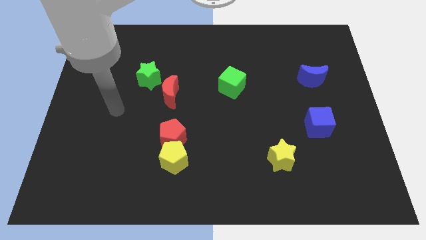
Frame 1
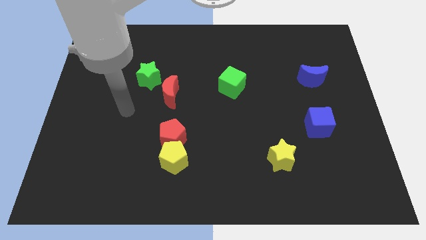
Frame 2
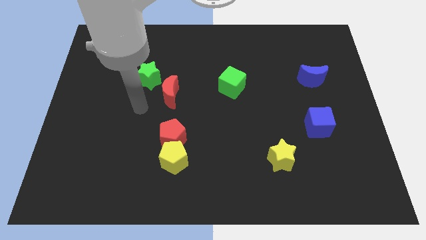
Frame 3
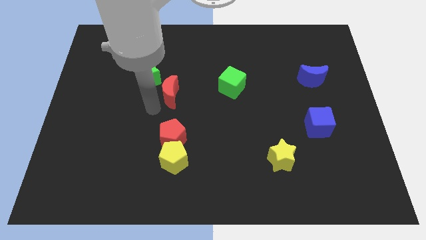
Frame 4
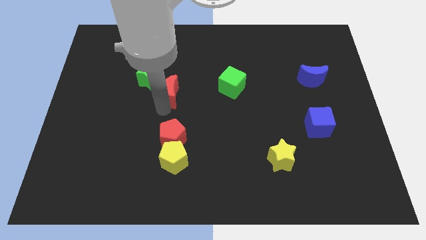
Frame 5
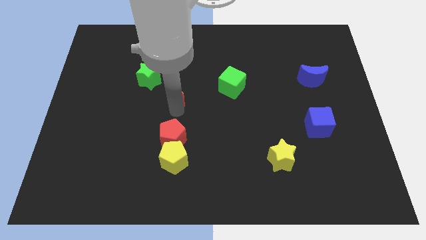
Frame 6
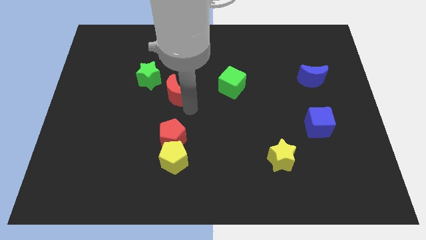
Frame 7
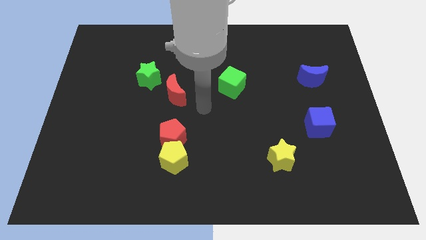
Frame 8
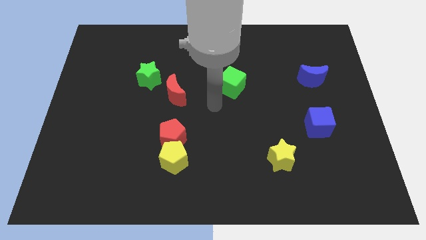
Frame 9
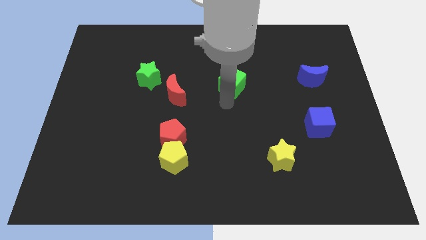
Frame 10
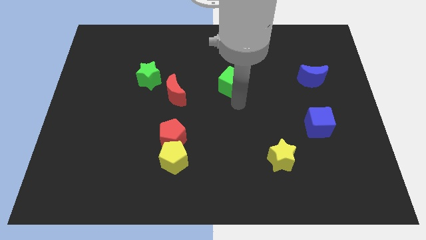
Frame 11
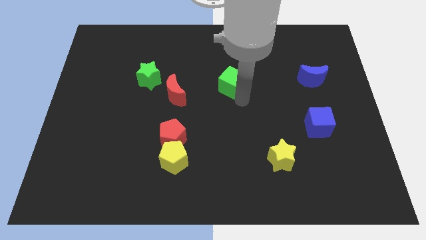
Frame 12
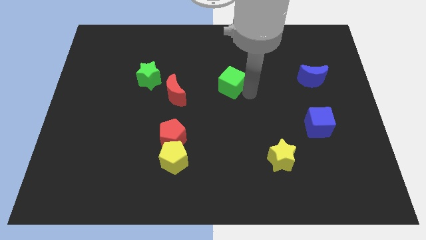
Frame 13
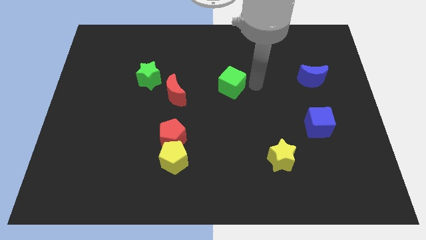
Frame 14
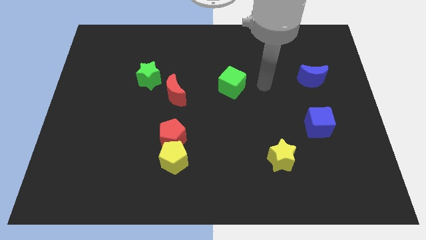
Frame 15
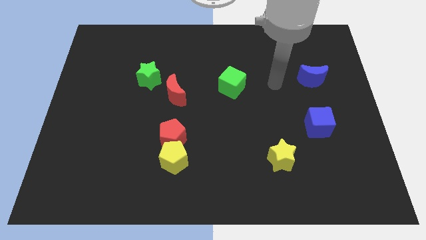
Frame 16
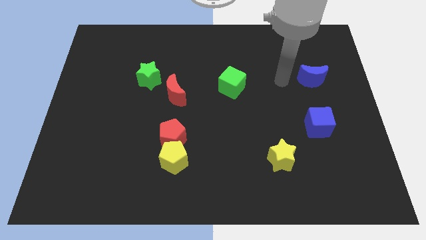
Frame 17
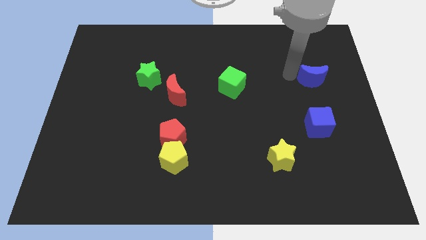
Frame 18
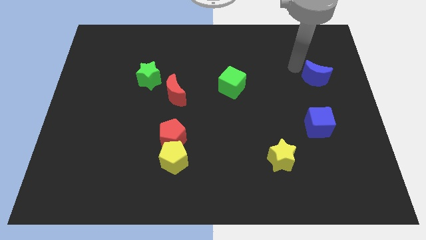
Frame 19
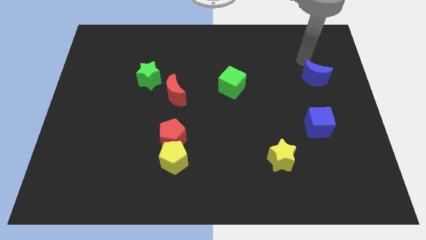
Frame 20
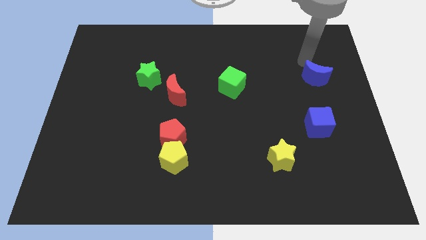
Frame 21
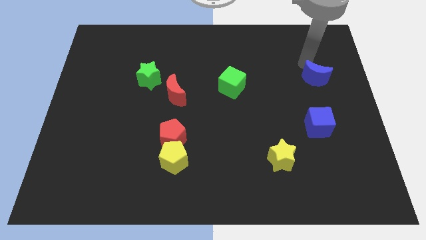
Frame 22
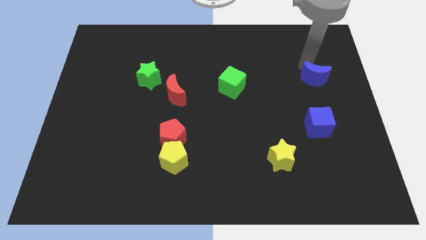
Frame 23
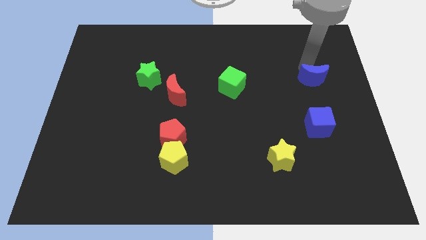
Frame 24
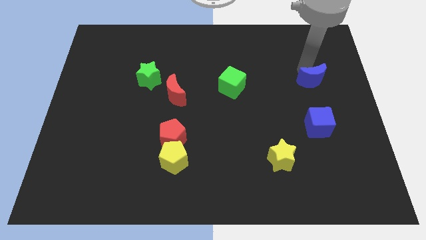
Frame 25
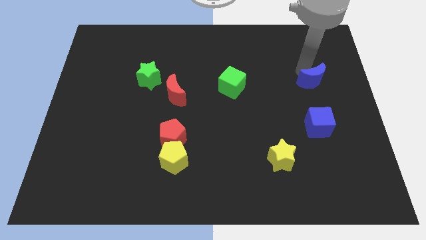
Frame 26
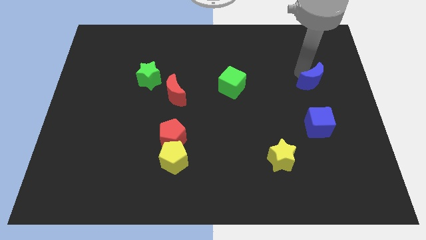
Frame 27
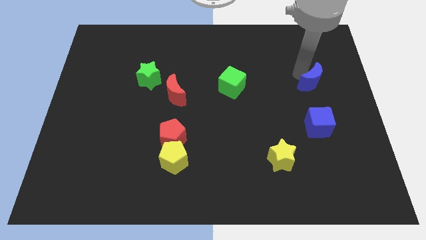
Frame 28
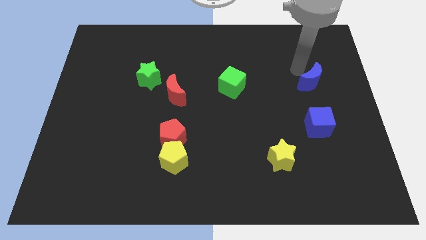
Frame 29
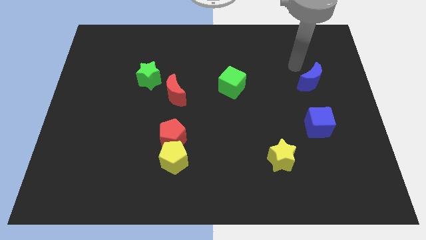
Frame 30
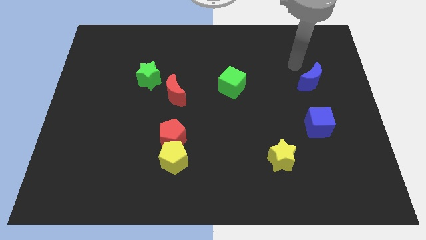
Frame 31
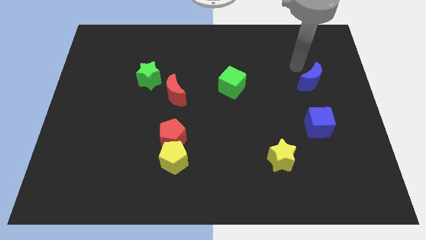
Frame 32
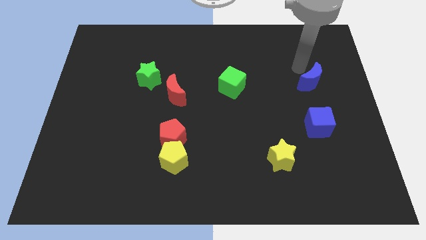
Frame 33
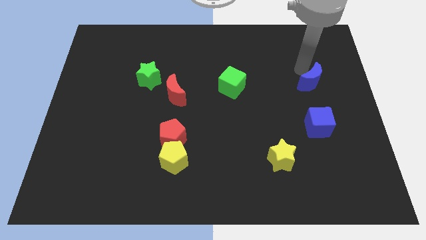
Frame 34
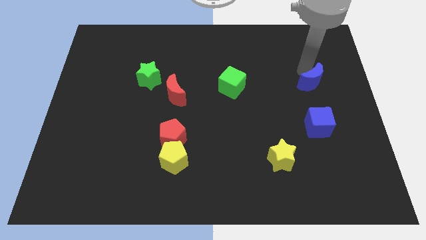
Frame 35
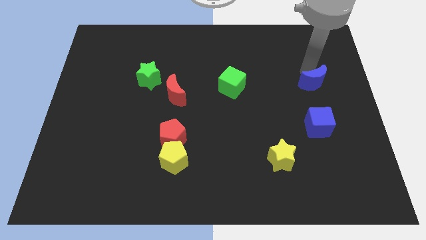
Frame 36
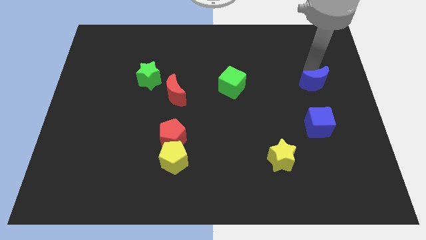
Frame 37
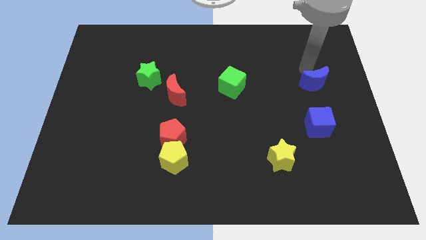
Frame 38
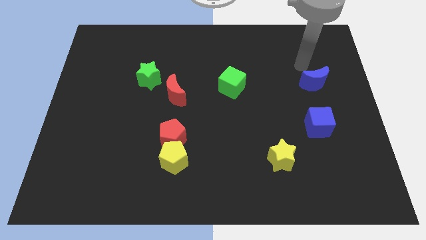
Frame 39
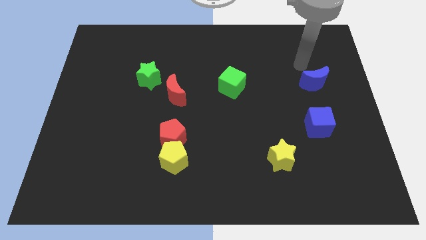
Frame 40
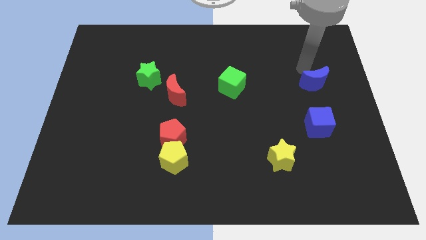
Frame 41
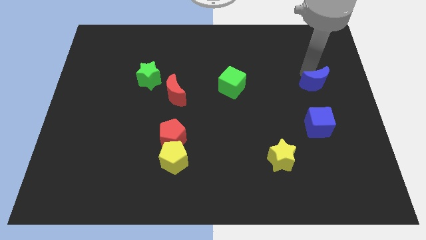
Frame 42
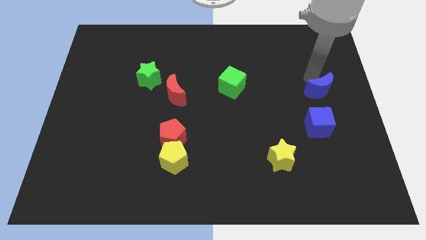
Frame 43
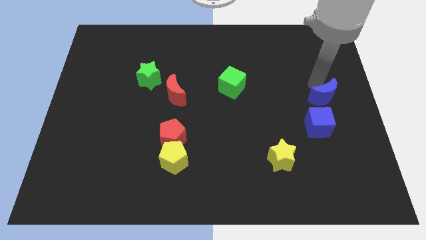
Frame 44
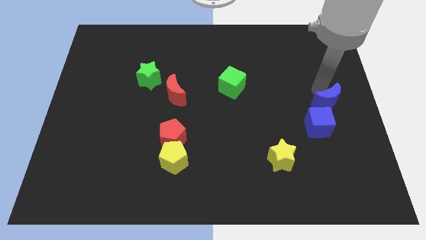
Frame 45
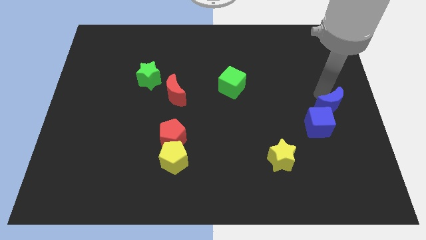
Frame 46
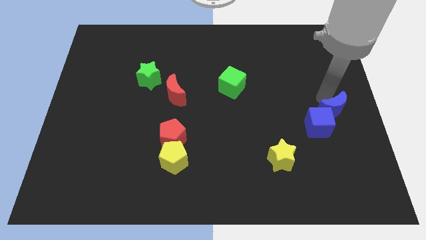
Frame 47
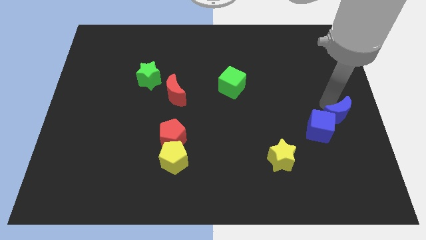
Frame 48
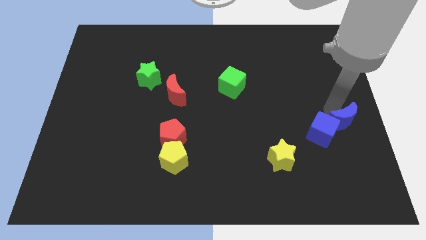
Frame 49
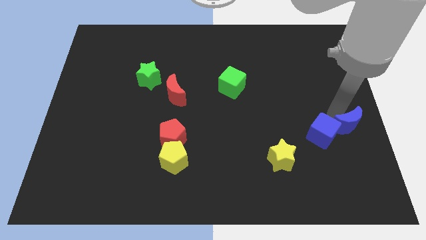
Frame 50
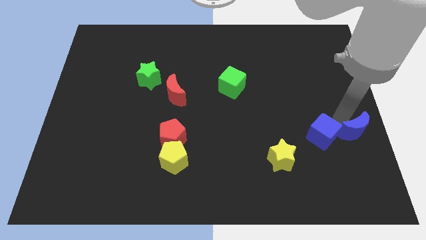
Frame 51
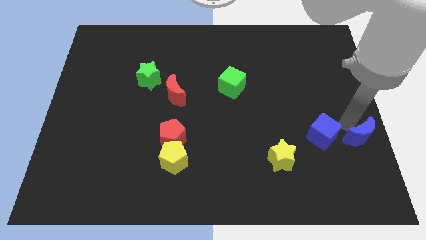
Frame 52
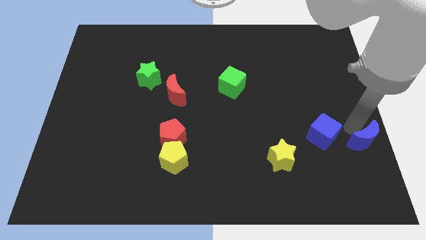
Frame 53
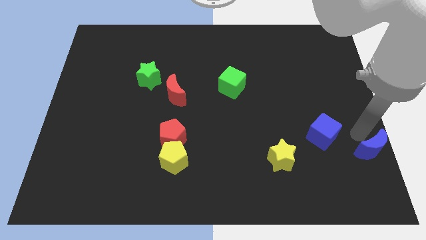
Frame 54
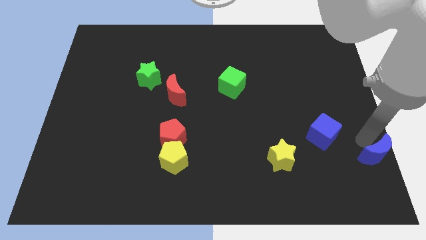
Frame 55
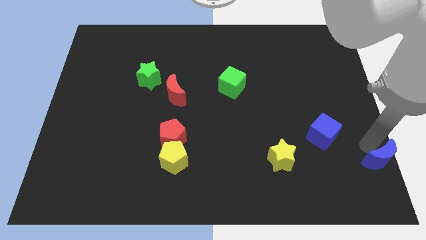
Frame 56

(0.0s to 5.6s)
put the blue moon to the bottom right corner

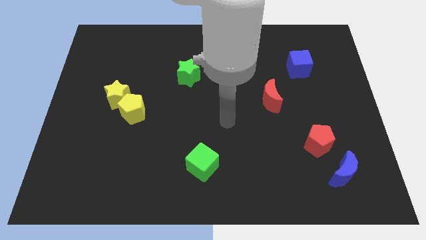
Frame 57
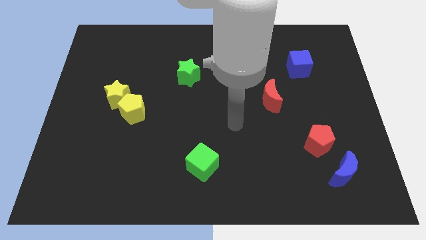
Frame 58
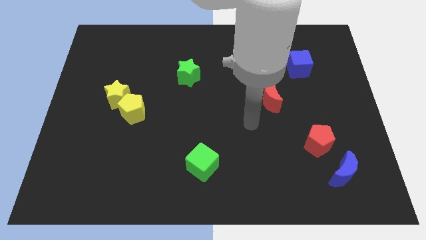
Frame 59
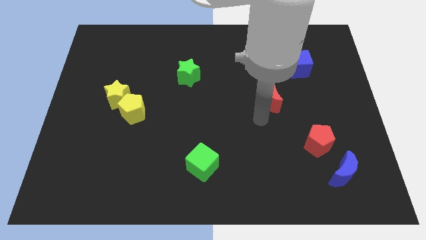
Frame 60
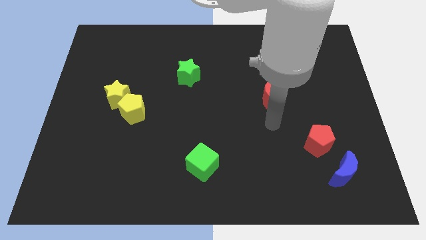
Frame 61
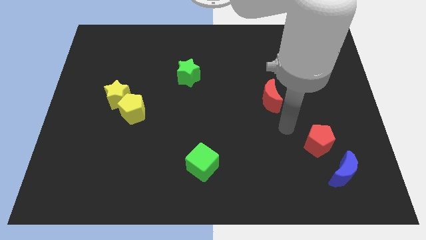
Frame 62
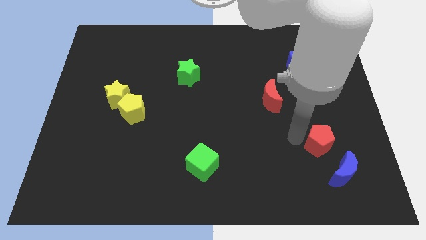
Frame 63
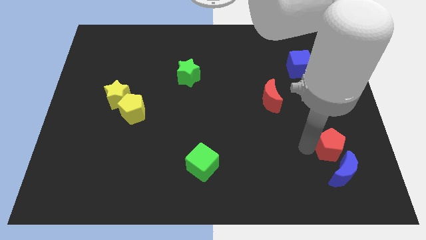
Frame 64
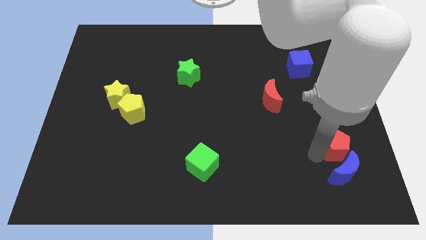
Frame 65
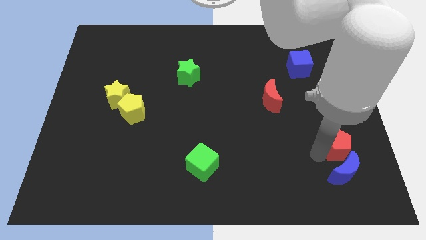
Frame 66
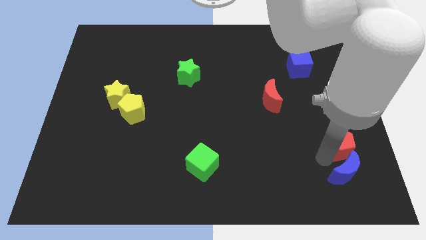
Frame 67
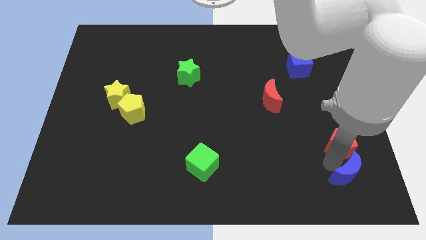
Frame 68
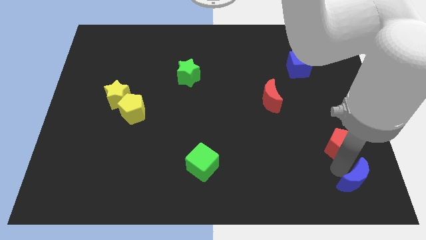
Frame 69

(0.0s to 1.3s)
push the blue moon to the bottom right corner

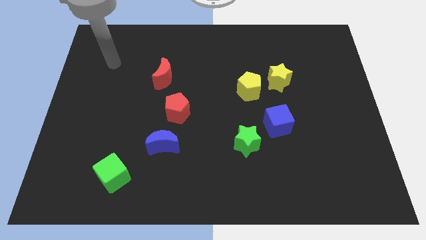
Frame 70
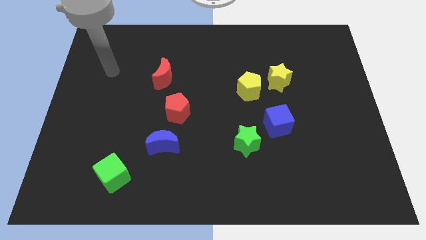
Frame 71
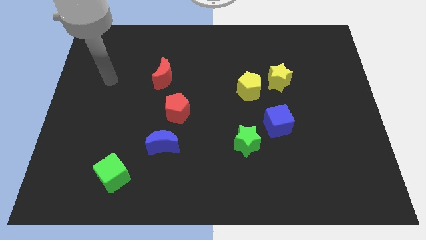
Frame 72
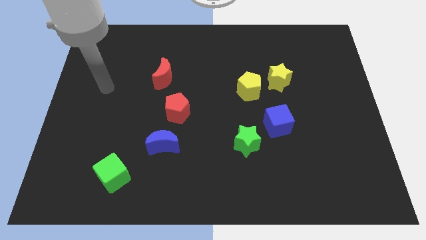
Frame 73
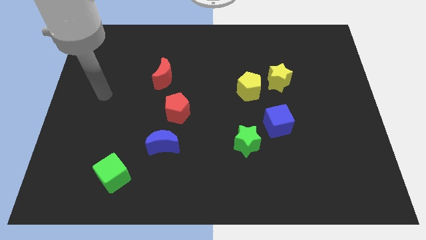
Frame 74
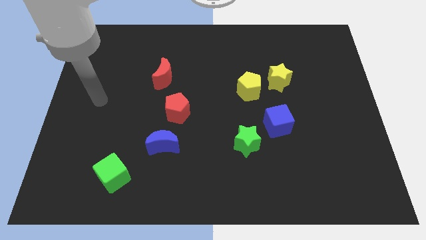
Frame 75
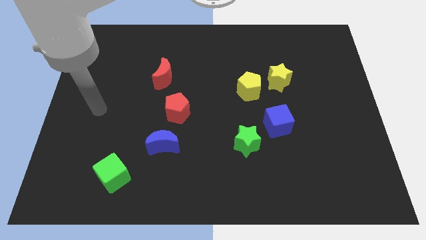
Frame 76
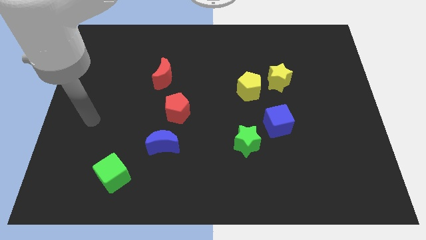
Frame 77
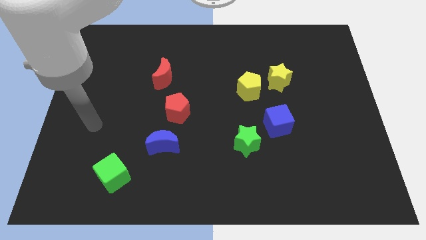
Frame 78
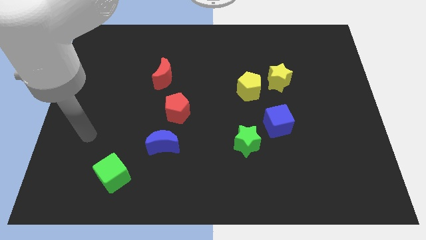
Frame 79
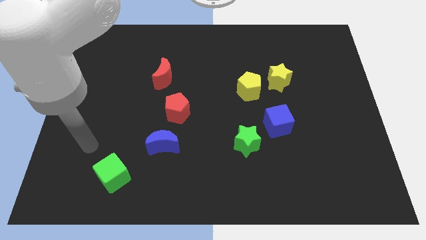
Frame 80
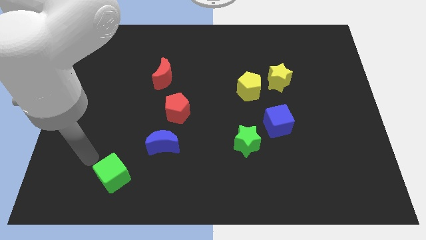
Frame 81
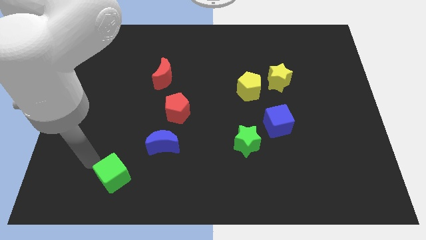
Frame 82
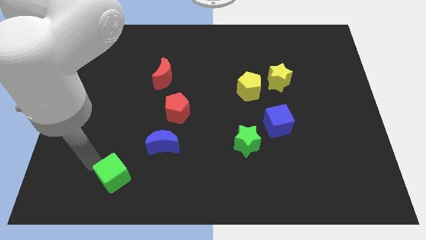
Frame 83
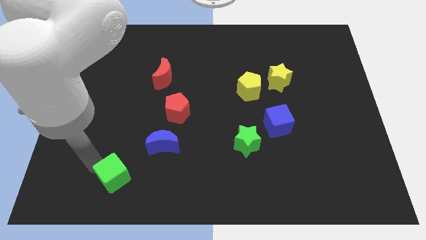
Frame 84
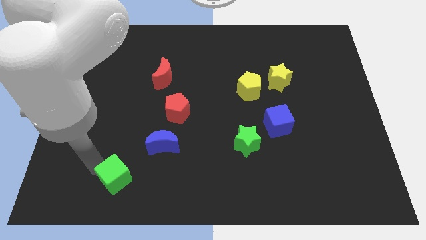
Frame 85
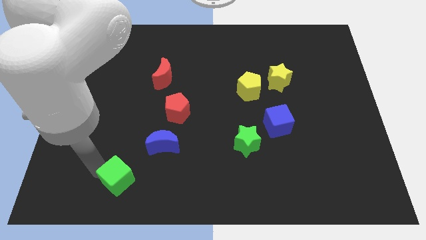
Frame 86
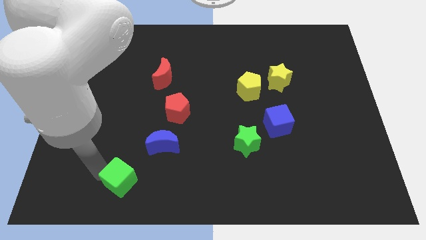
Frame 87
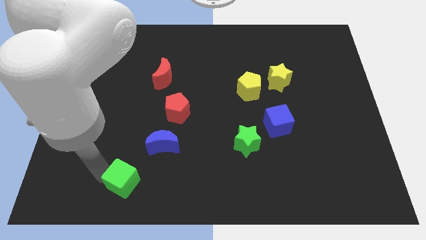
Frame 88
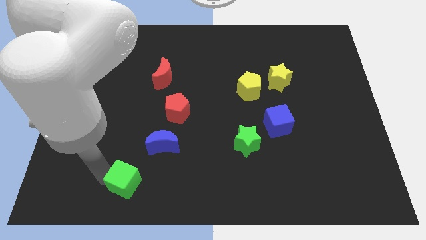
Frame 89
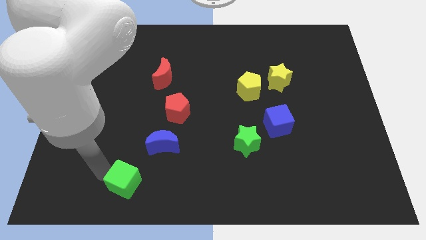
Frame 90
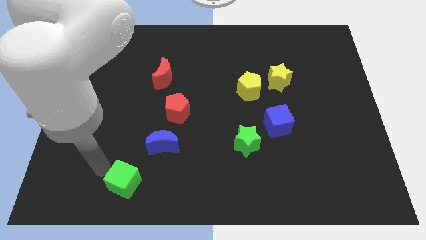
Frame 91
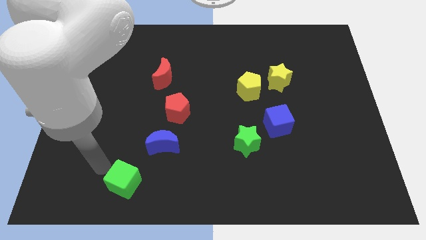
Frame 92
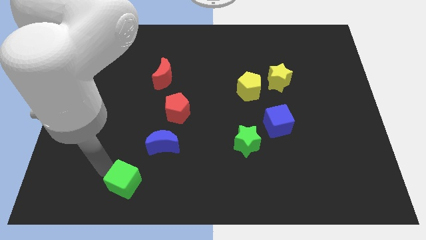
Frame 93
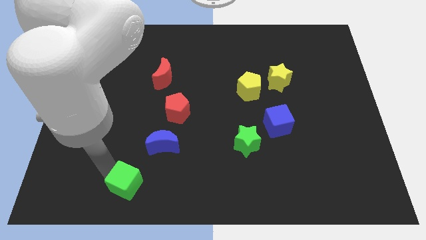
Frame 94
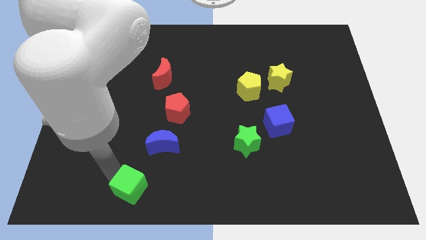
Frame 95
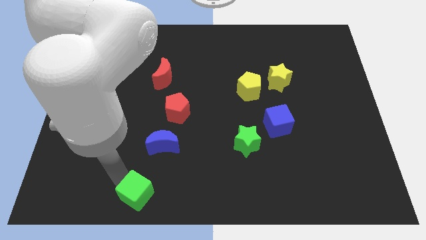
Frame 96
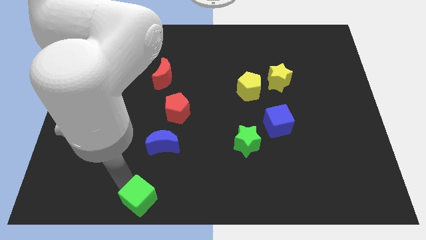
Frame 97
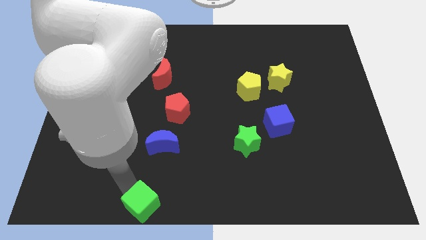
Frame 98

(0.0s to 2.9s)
push the green cube to the bottom
